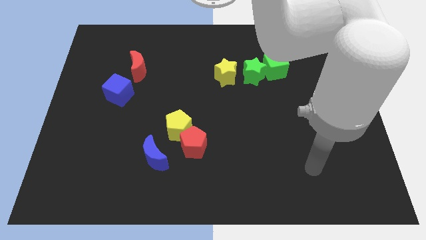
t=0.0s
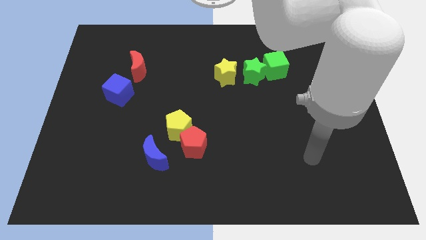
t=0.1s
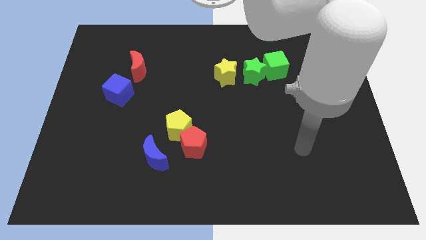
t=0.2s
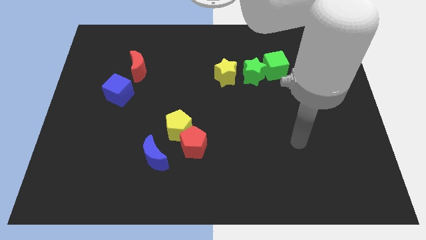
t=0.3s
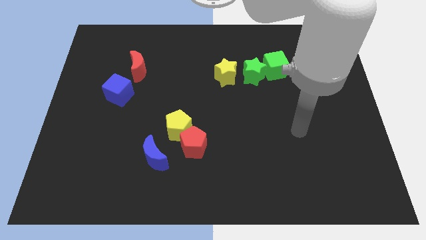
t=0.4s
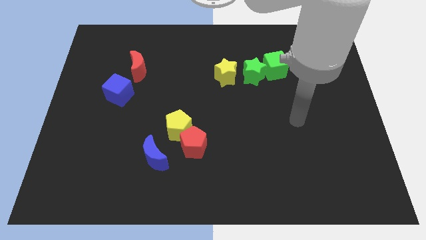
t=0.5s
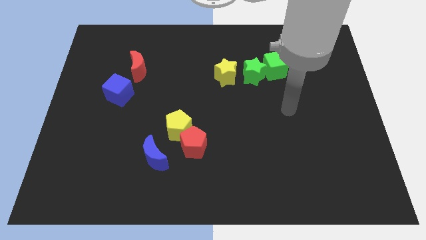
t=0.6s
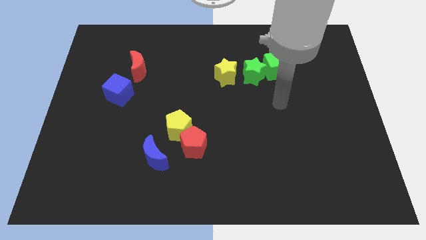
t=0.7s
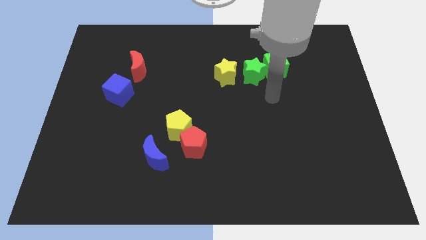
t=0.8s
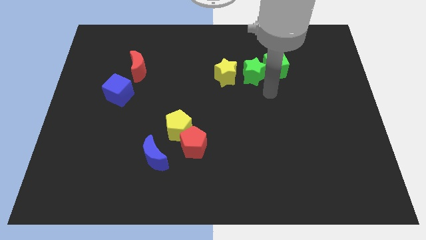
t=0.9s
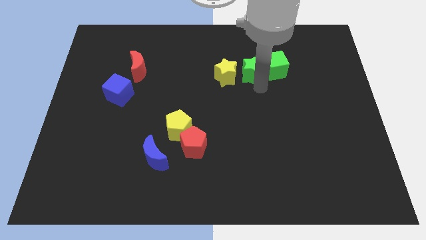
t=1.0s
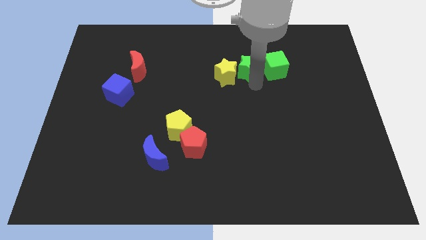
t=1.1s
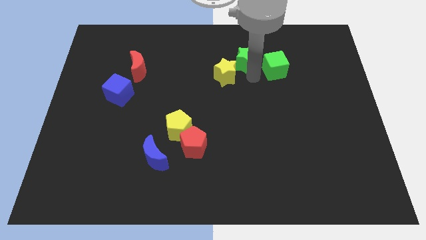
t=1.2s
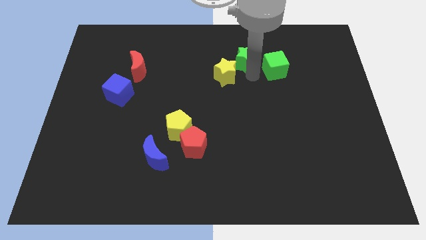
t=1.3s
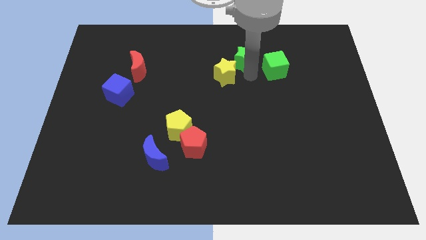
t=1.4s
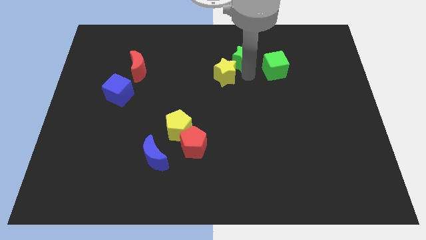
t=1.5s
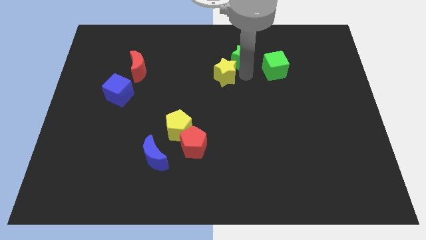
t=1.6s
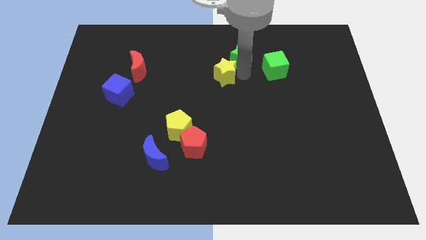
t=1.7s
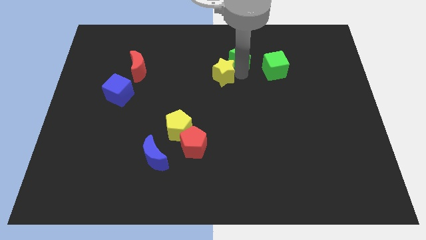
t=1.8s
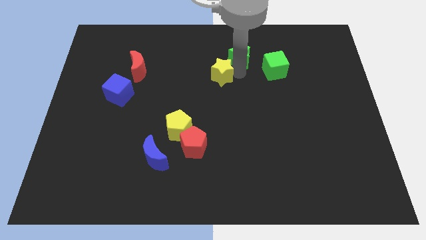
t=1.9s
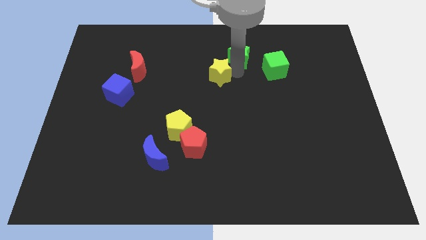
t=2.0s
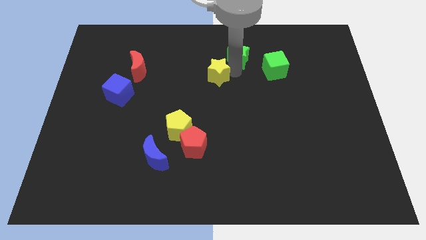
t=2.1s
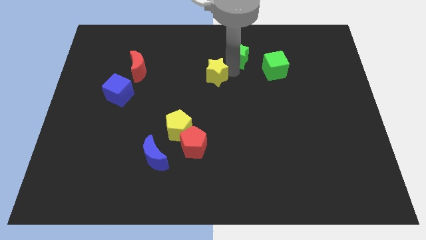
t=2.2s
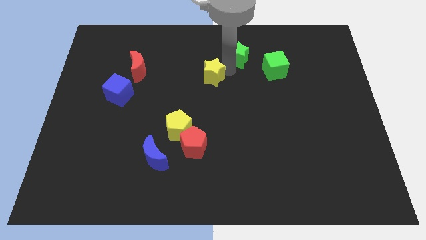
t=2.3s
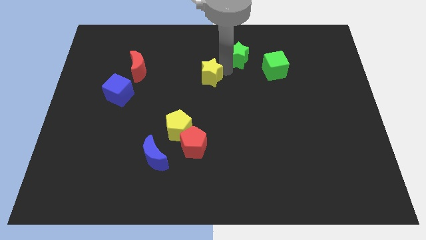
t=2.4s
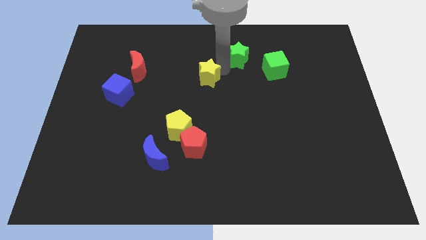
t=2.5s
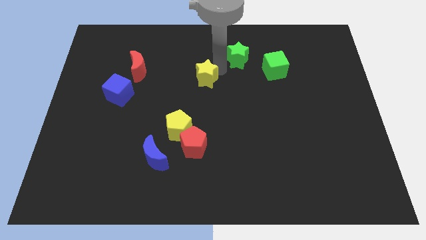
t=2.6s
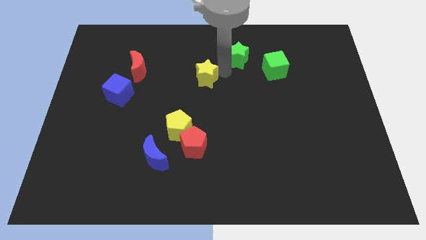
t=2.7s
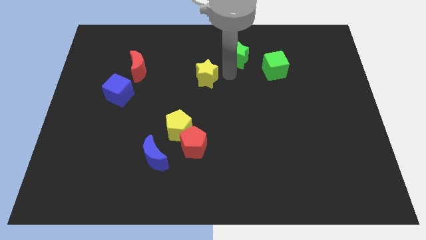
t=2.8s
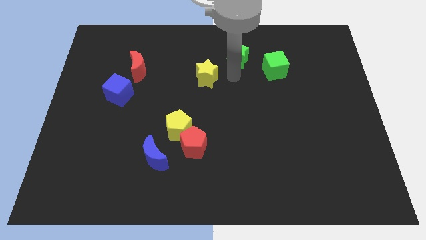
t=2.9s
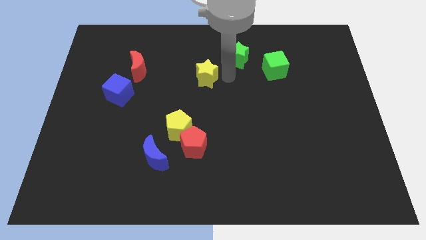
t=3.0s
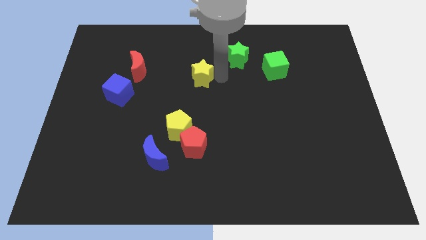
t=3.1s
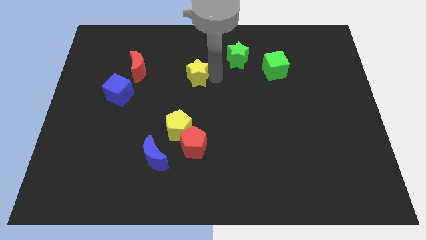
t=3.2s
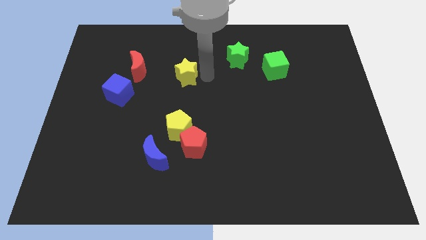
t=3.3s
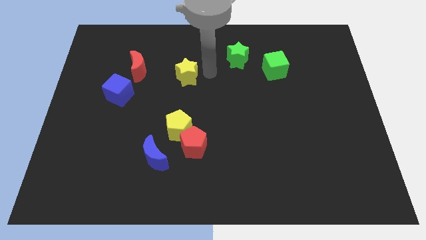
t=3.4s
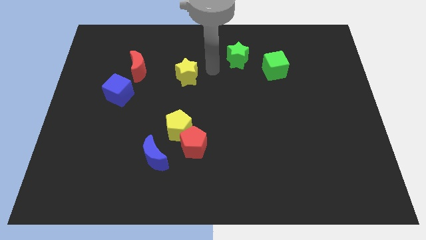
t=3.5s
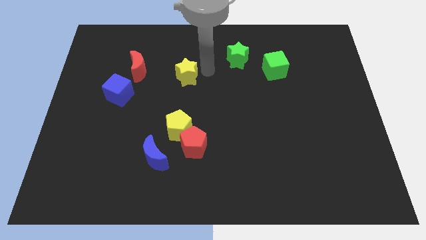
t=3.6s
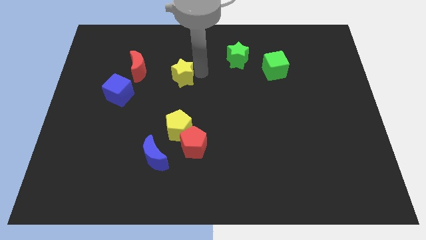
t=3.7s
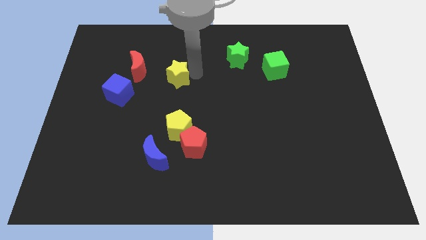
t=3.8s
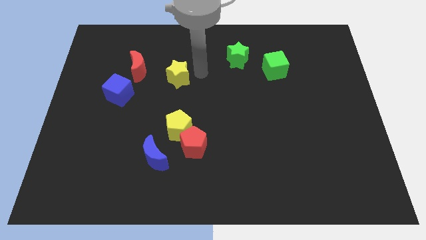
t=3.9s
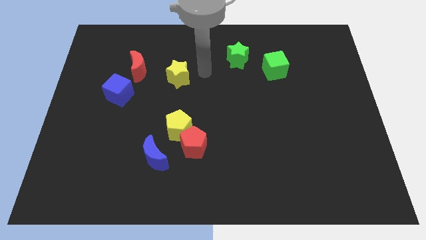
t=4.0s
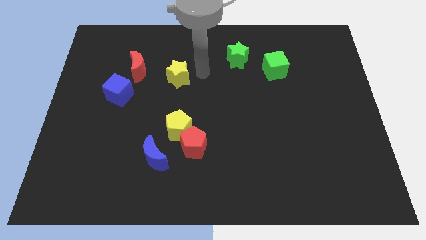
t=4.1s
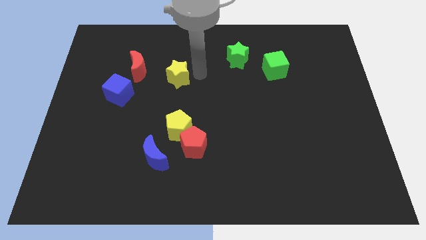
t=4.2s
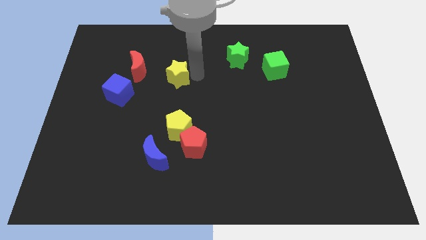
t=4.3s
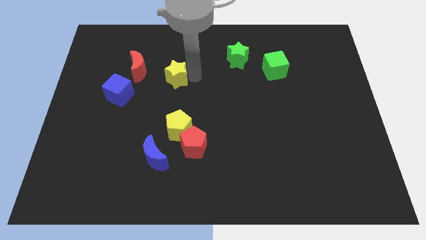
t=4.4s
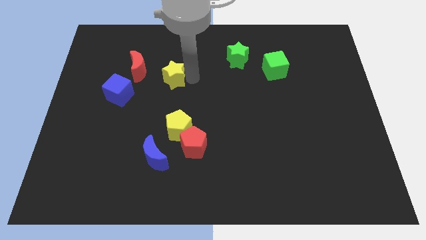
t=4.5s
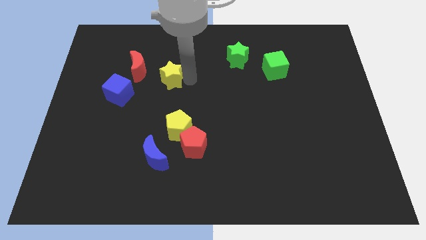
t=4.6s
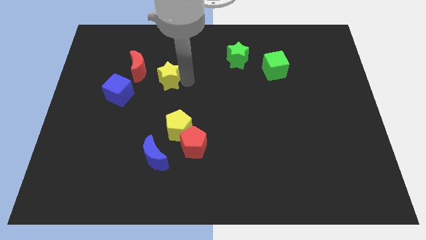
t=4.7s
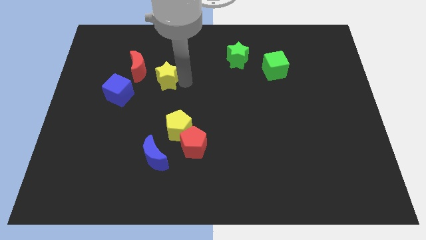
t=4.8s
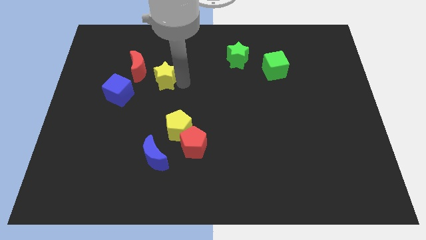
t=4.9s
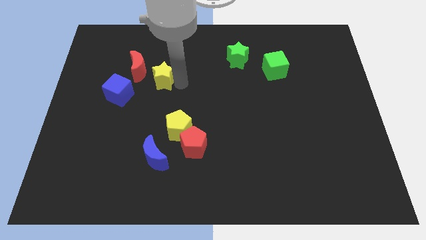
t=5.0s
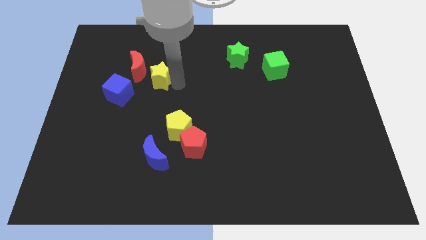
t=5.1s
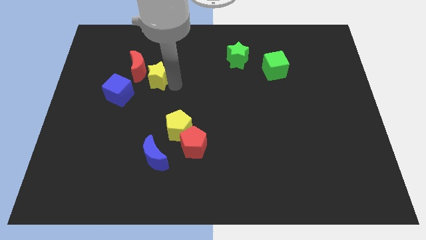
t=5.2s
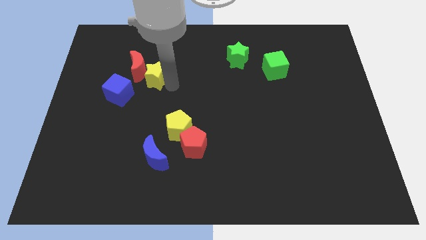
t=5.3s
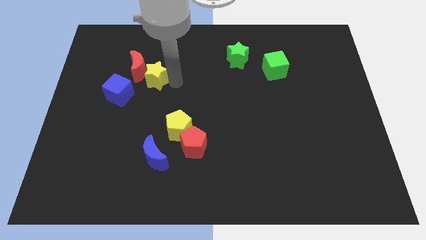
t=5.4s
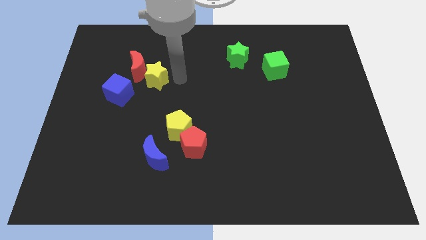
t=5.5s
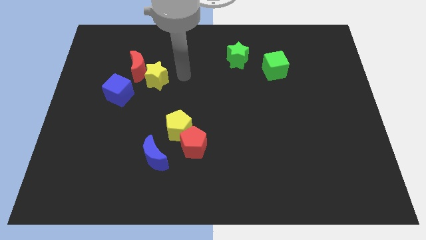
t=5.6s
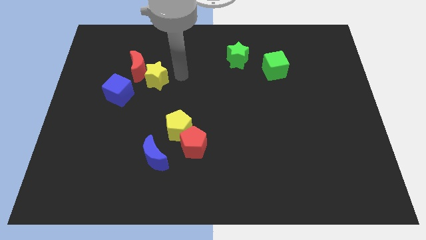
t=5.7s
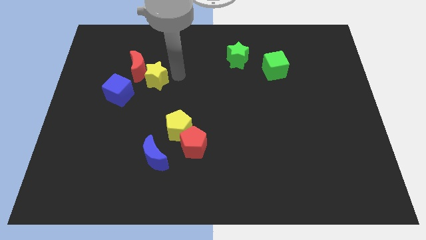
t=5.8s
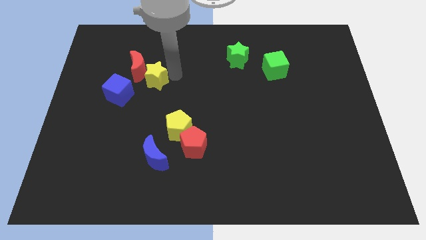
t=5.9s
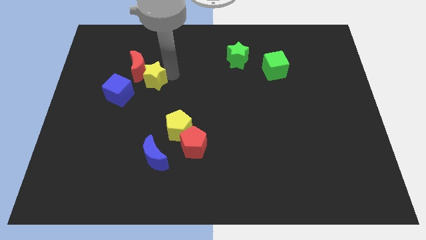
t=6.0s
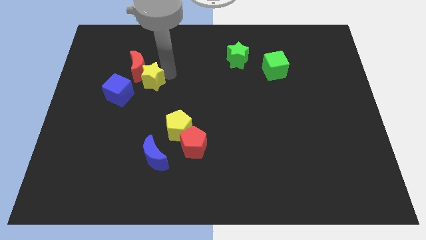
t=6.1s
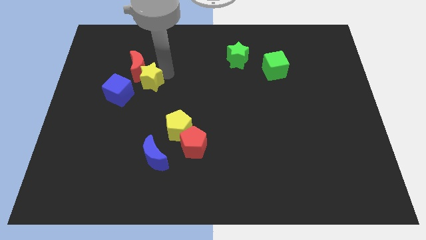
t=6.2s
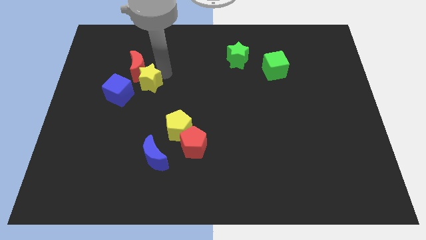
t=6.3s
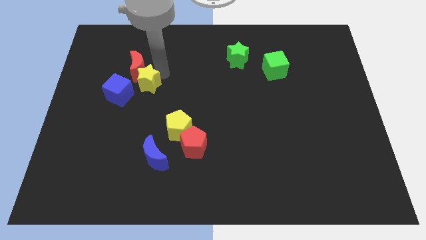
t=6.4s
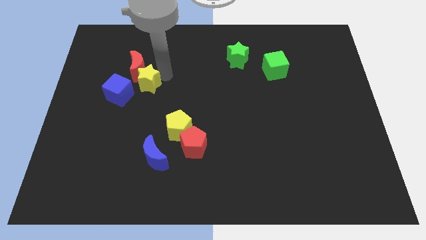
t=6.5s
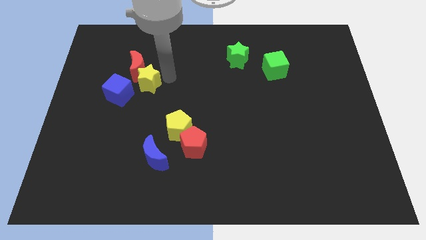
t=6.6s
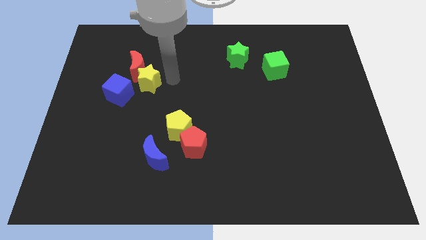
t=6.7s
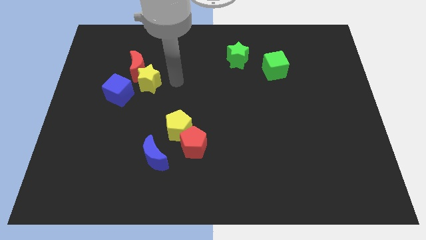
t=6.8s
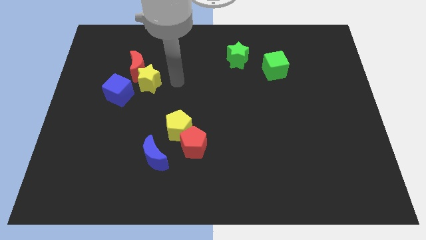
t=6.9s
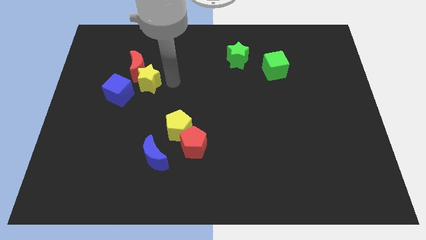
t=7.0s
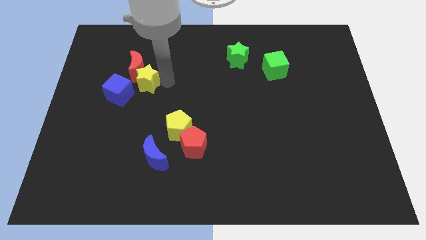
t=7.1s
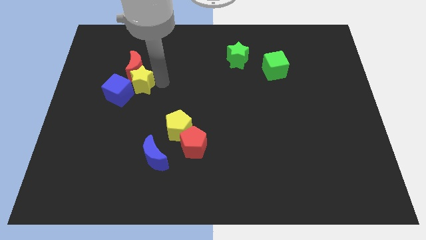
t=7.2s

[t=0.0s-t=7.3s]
push the yellow star left

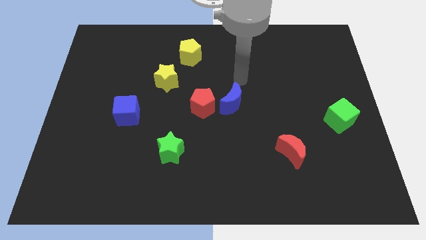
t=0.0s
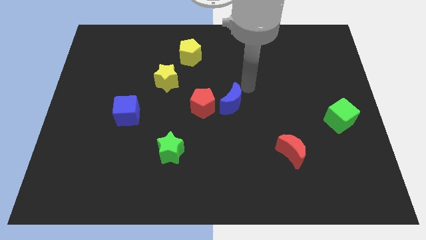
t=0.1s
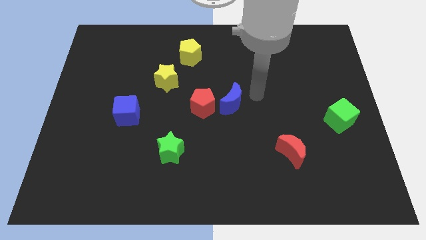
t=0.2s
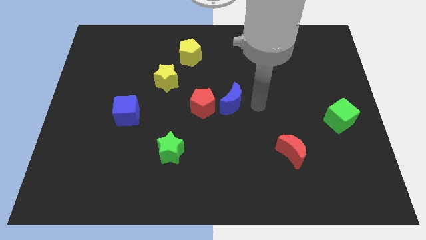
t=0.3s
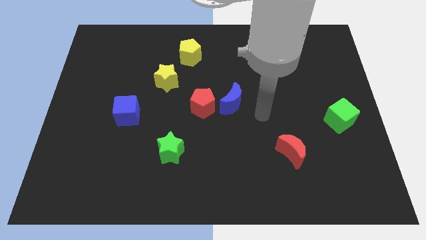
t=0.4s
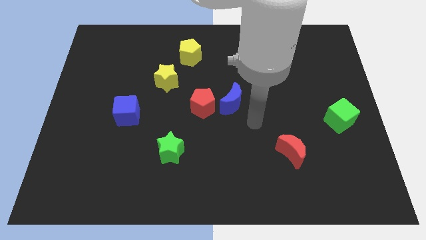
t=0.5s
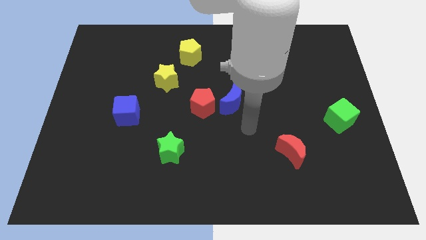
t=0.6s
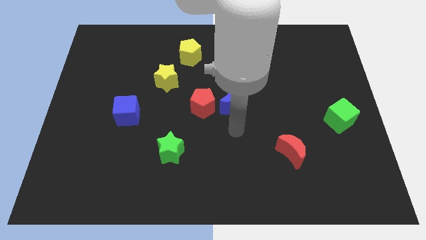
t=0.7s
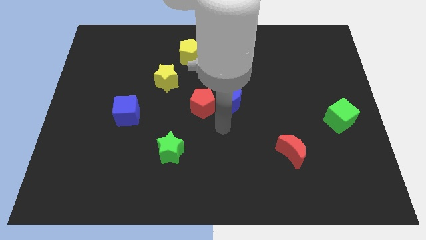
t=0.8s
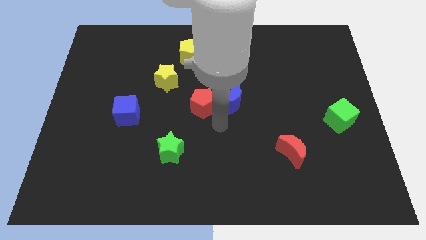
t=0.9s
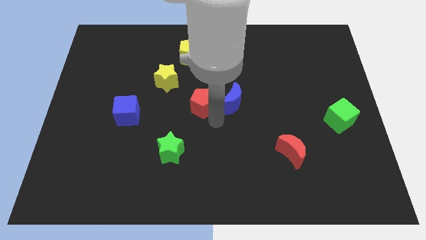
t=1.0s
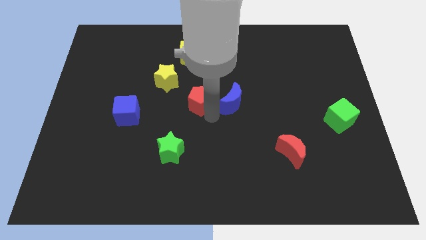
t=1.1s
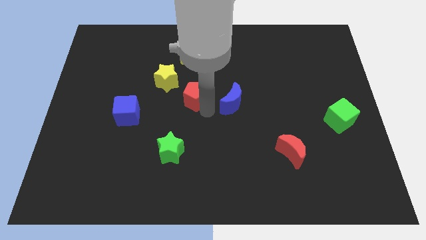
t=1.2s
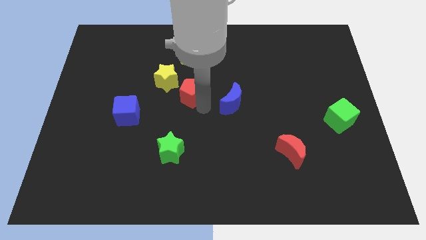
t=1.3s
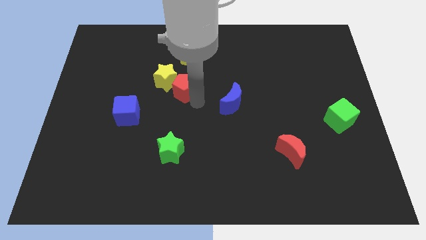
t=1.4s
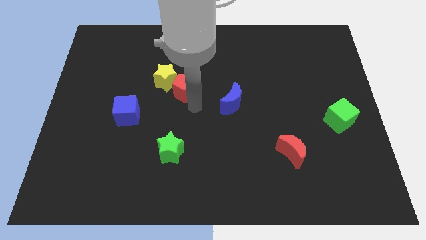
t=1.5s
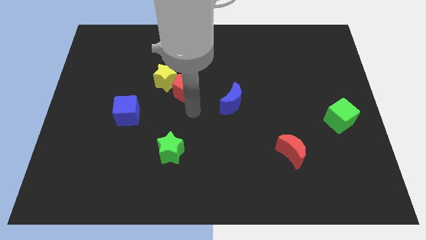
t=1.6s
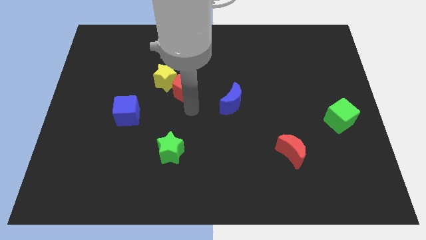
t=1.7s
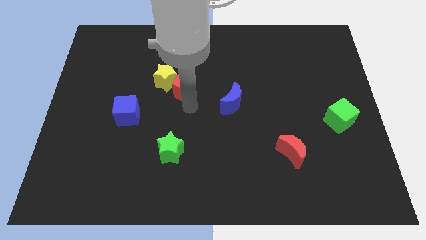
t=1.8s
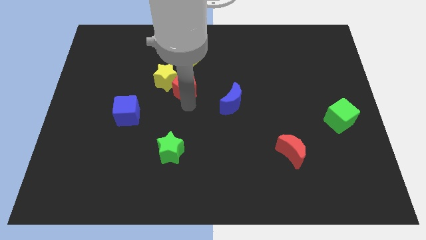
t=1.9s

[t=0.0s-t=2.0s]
slide the red pentagon slightly diagonally upwards and left
